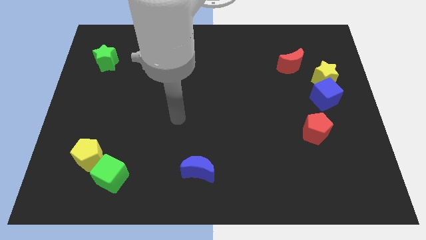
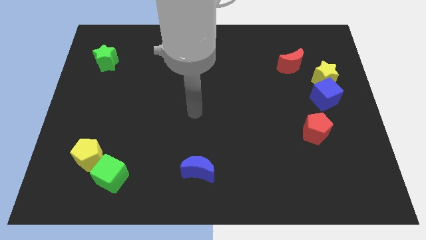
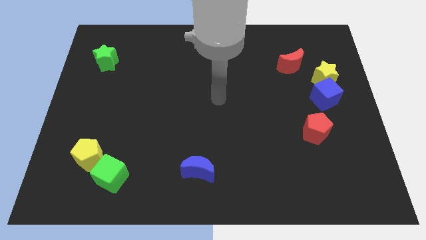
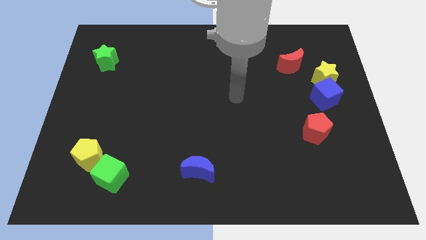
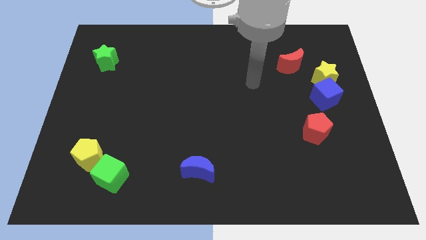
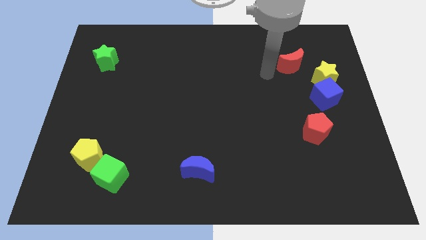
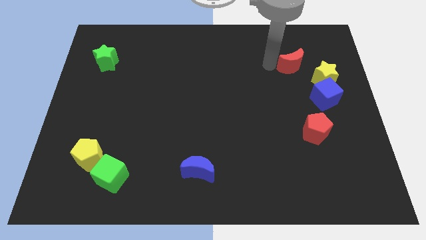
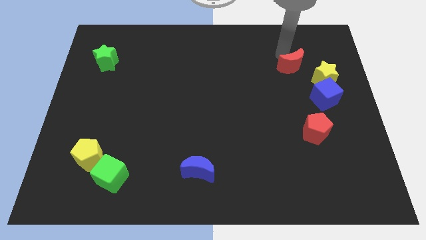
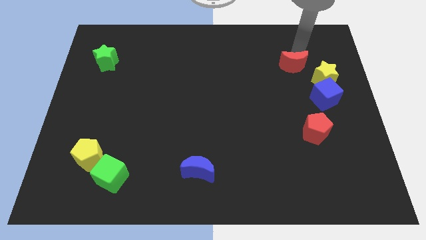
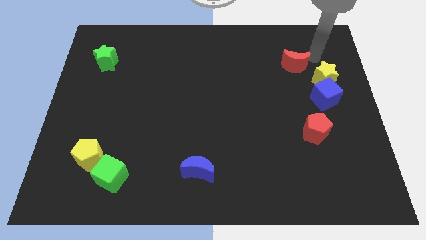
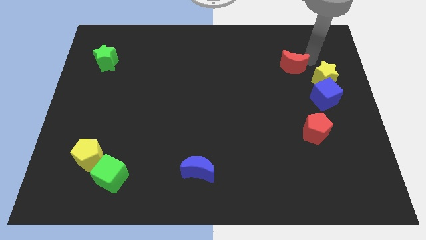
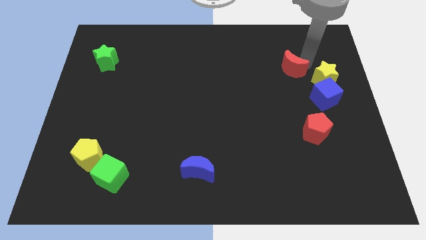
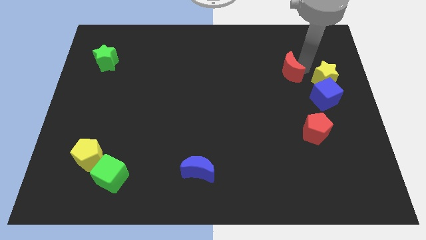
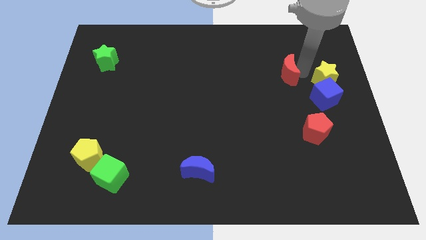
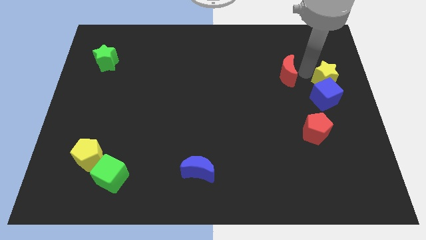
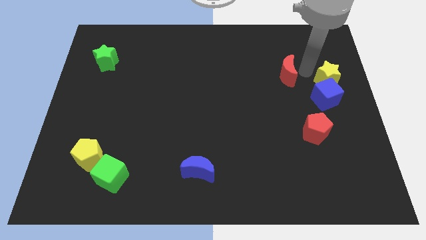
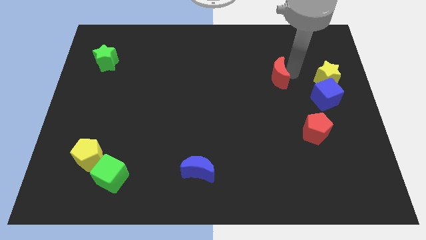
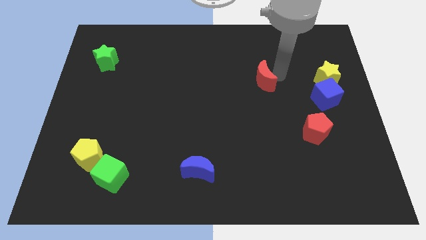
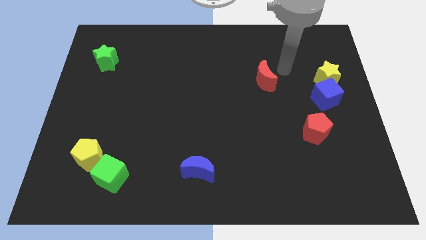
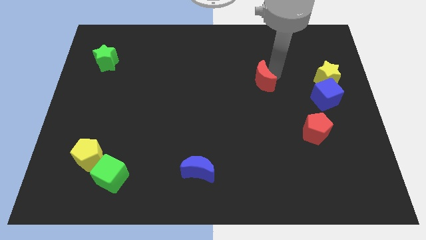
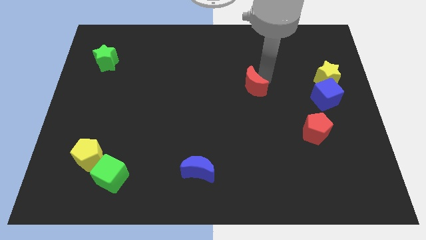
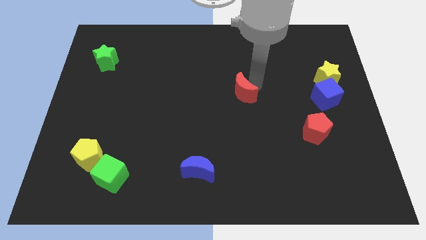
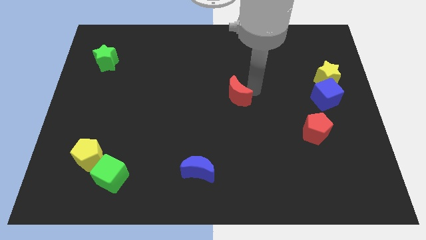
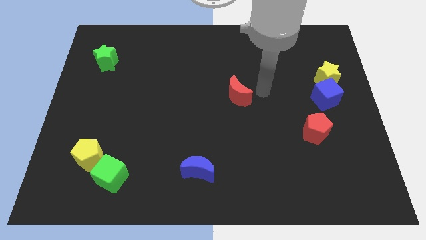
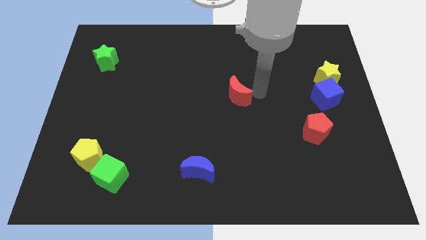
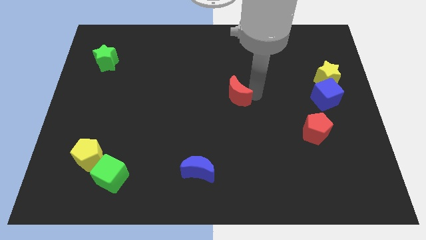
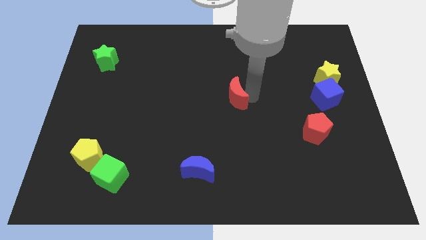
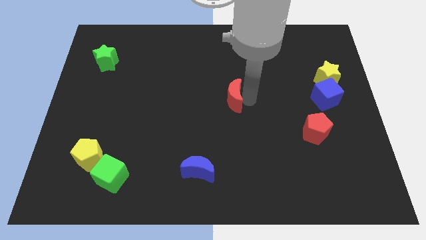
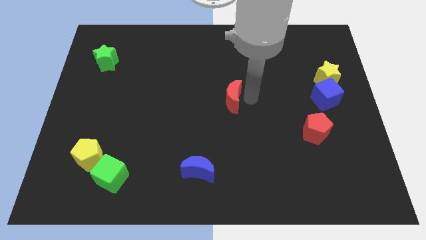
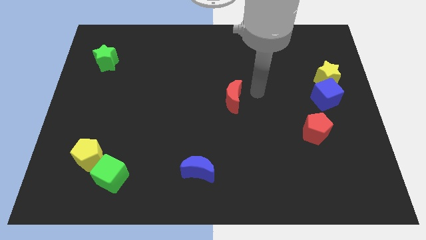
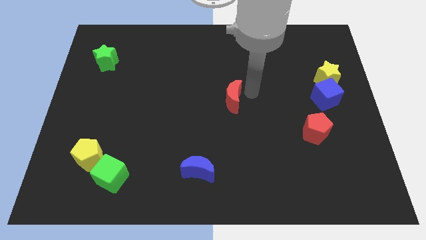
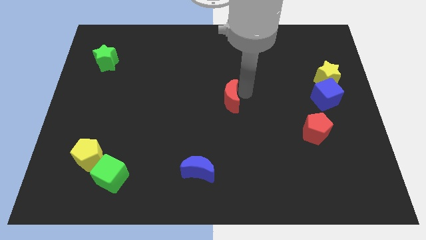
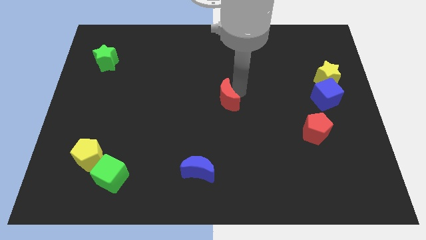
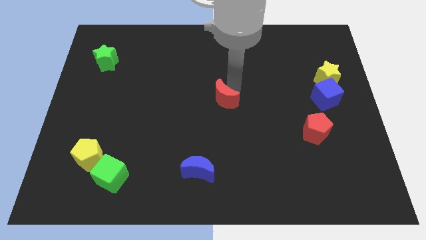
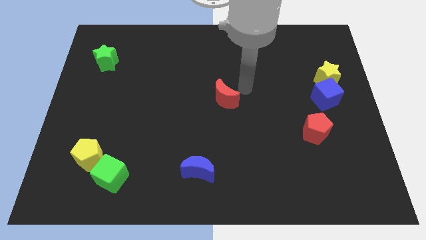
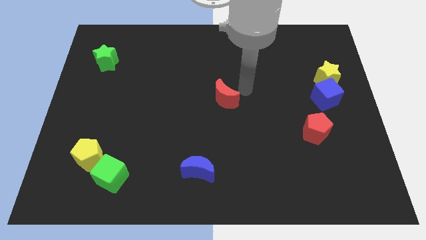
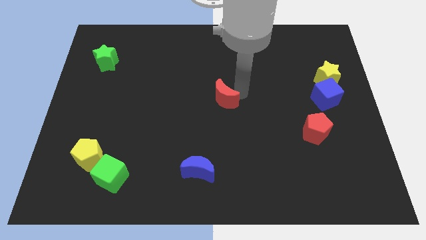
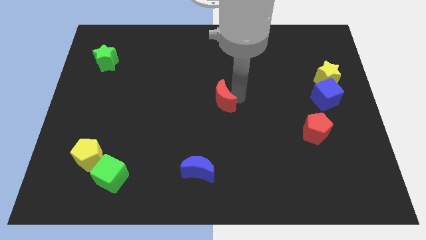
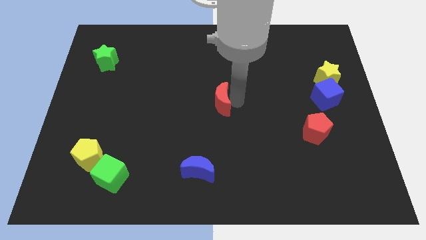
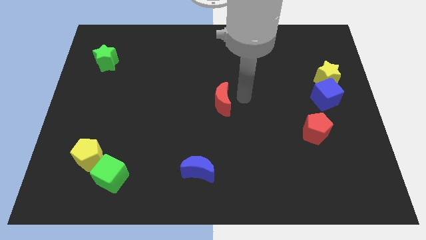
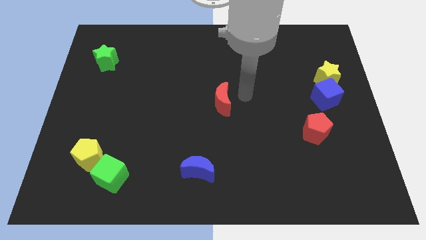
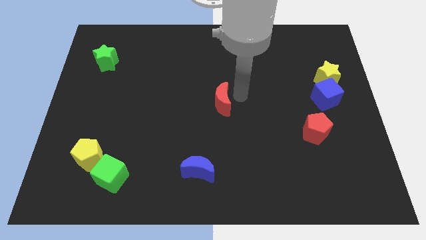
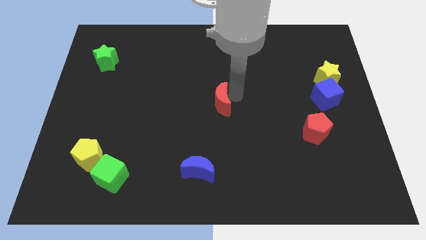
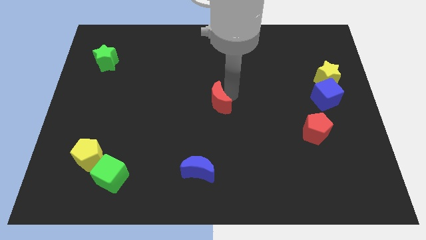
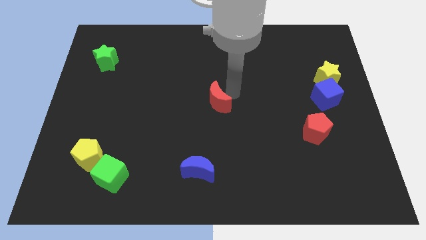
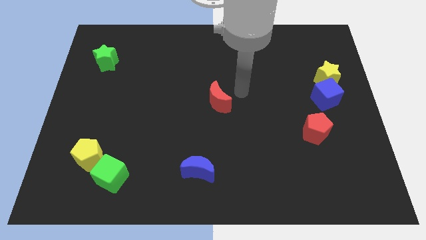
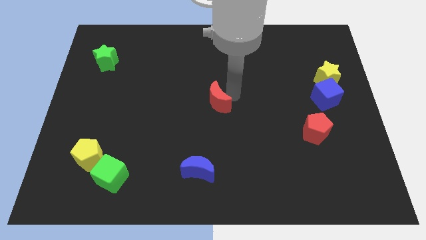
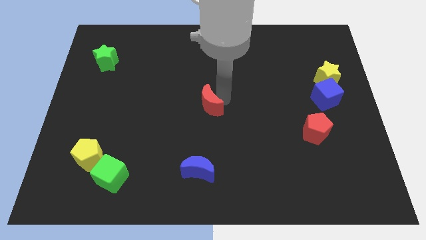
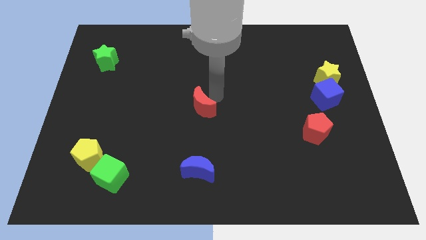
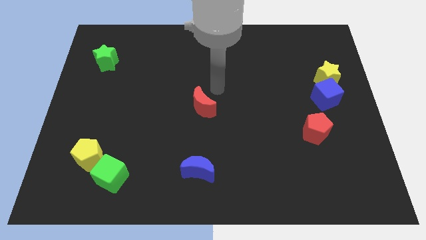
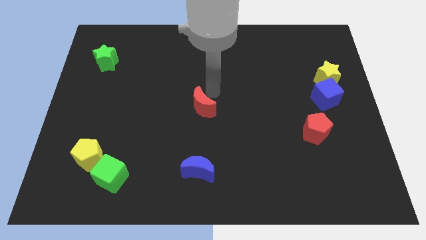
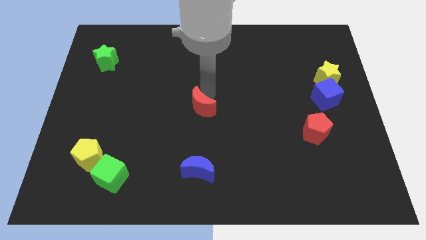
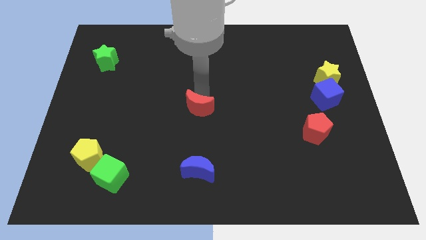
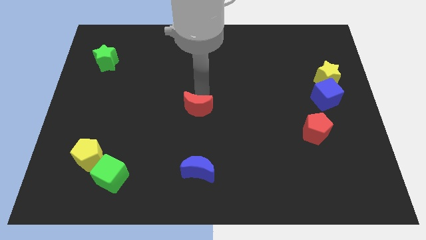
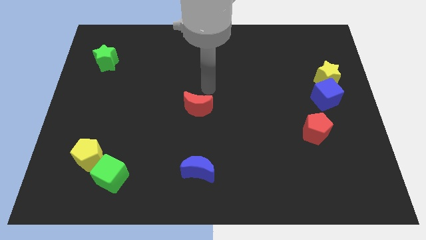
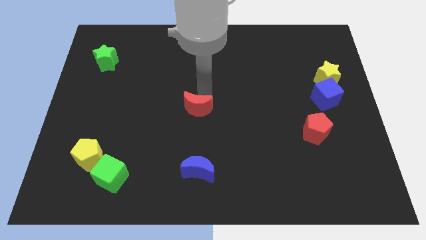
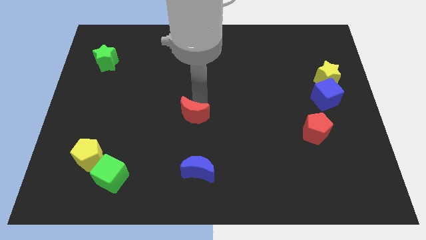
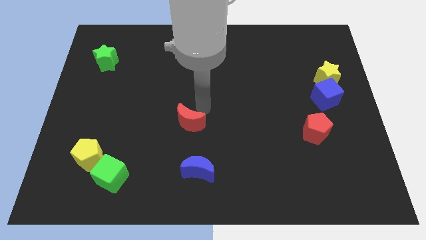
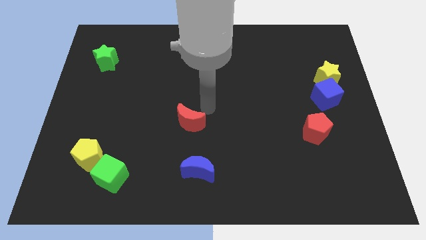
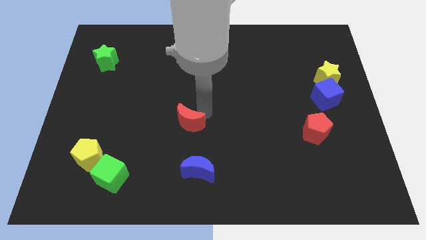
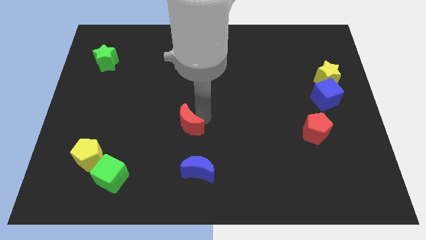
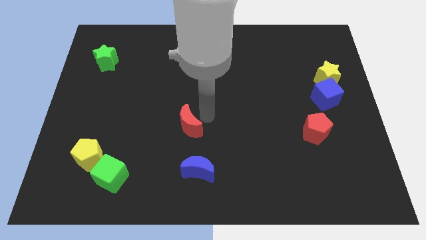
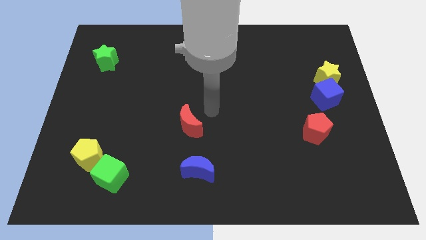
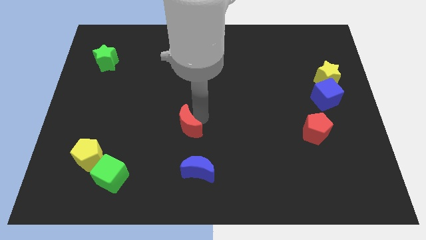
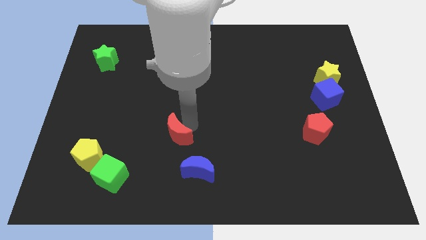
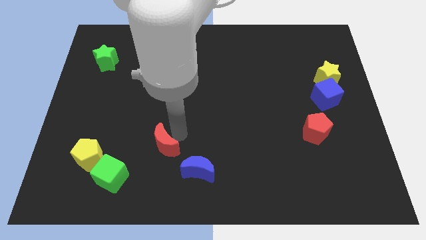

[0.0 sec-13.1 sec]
push the red moon diagonally up and to the right of the green cube
